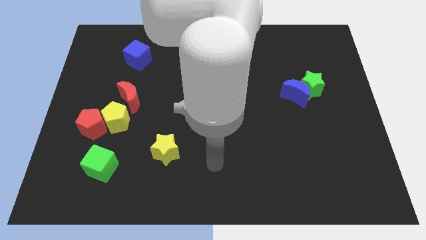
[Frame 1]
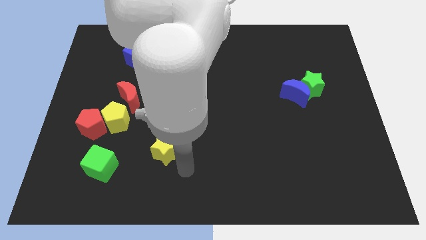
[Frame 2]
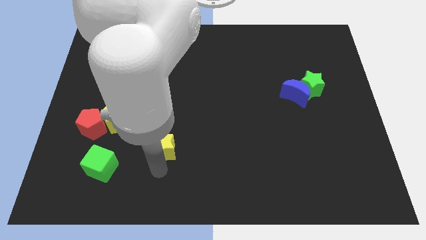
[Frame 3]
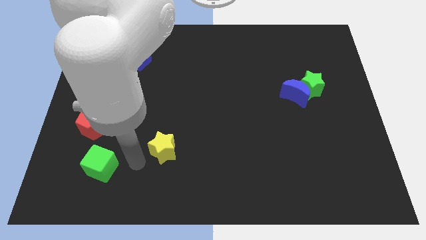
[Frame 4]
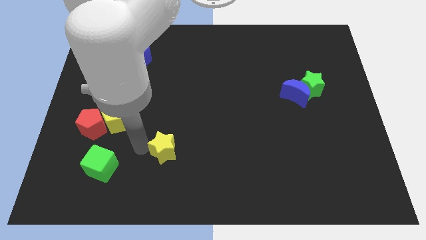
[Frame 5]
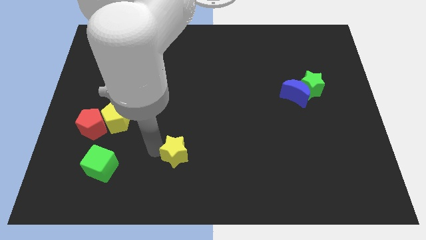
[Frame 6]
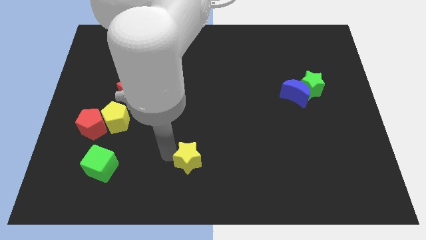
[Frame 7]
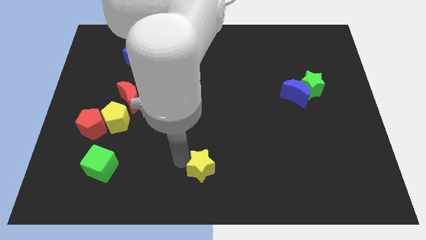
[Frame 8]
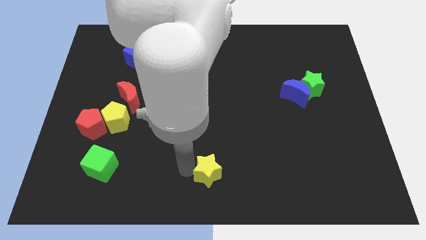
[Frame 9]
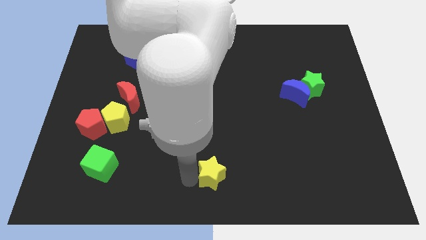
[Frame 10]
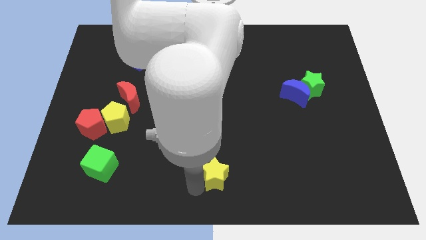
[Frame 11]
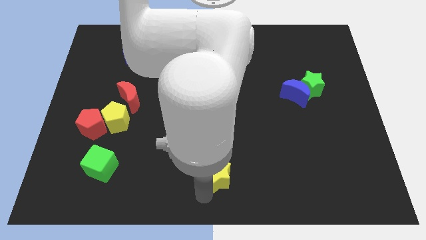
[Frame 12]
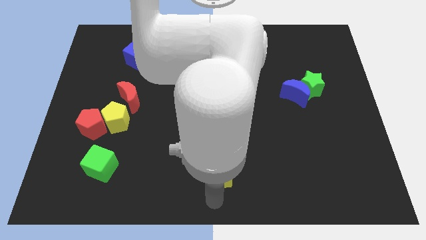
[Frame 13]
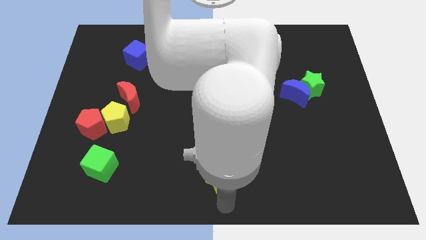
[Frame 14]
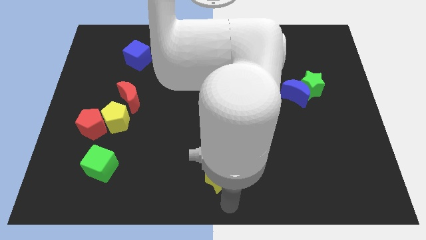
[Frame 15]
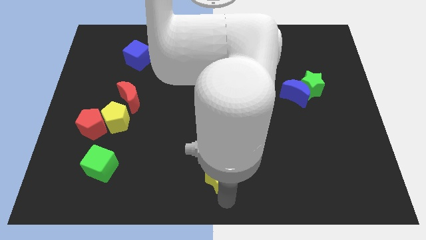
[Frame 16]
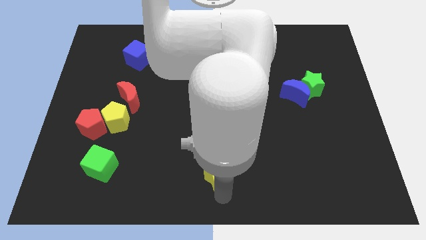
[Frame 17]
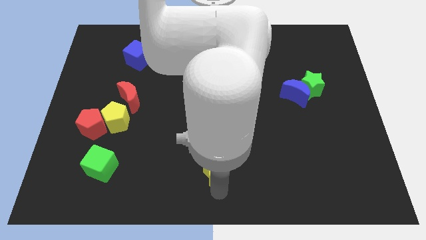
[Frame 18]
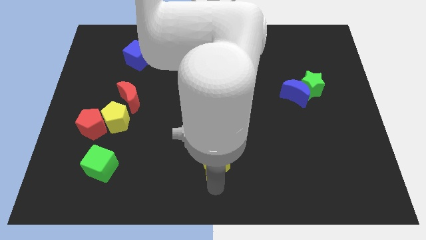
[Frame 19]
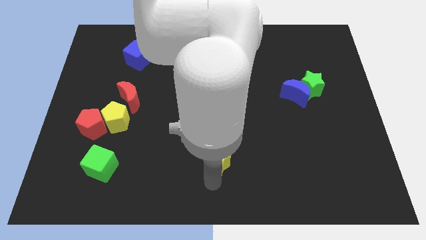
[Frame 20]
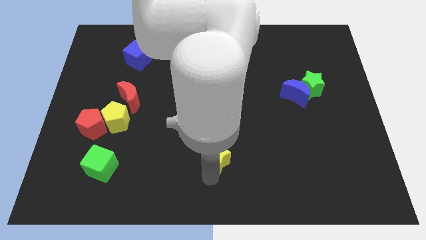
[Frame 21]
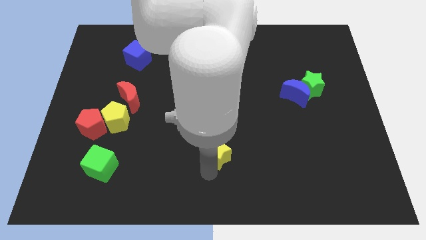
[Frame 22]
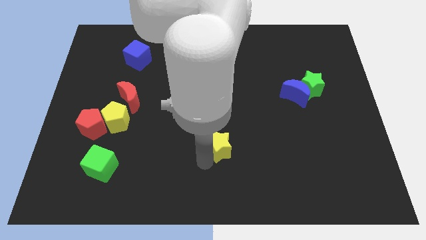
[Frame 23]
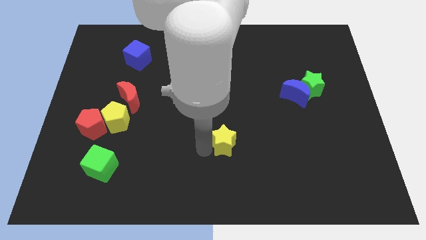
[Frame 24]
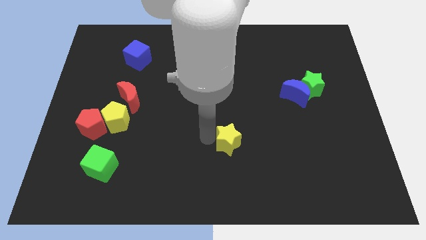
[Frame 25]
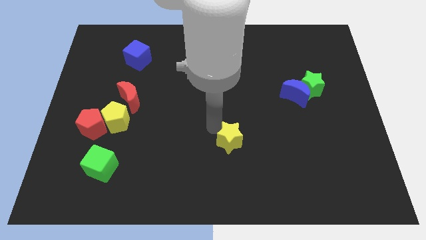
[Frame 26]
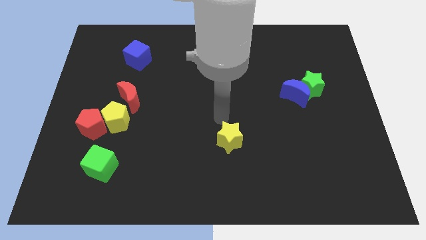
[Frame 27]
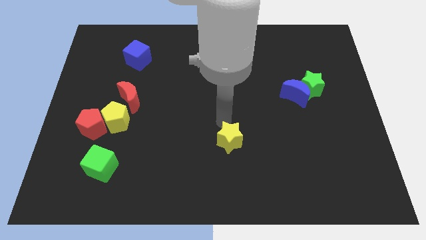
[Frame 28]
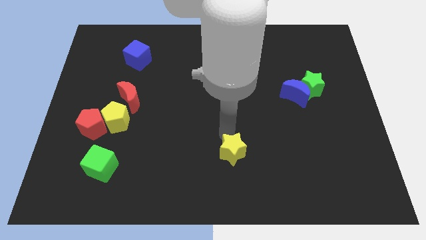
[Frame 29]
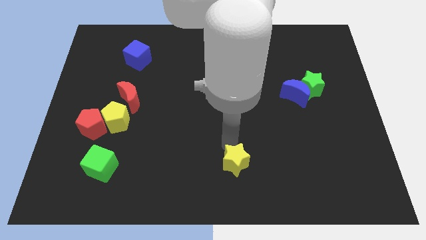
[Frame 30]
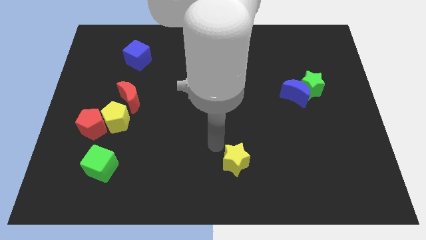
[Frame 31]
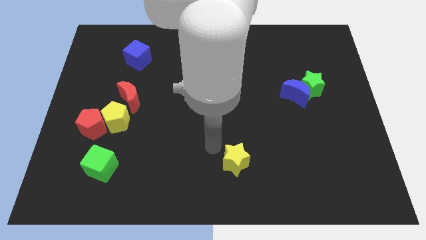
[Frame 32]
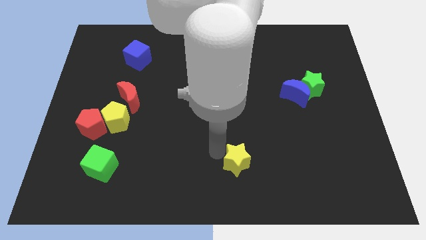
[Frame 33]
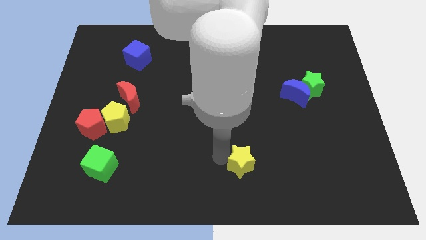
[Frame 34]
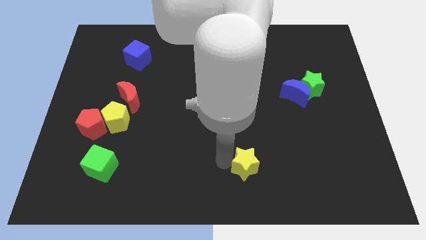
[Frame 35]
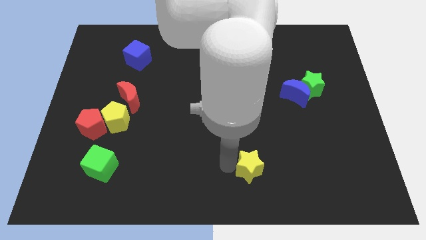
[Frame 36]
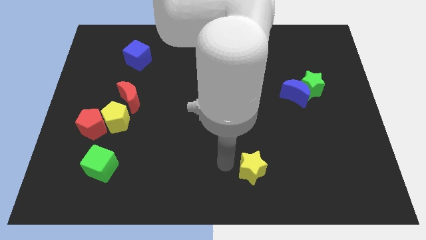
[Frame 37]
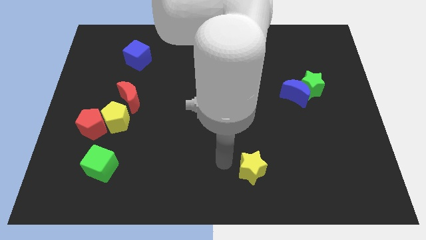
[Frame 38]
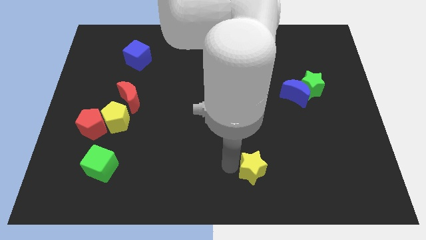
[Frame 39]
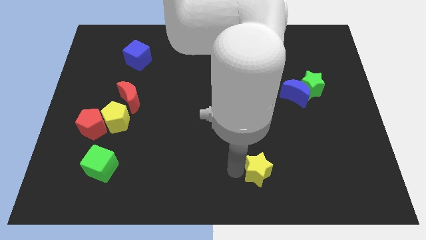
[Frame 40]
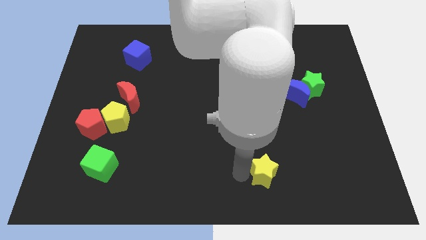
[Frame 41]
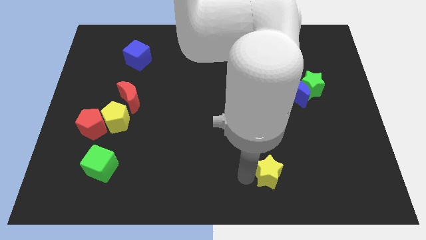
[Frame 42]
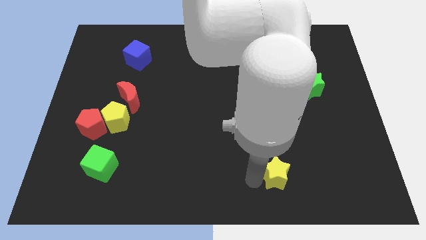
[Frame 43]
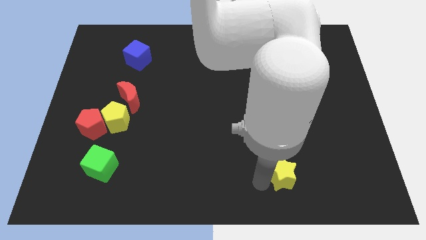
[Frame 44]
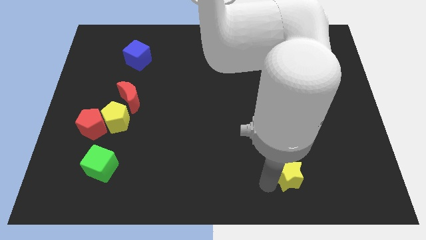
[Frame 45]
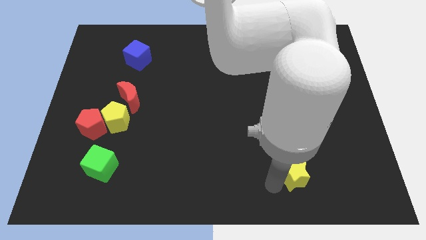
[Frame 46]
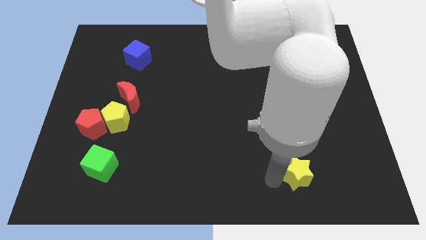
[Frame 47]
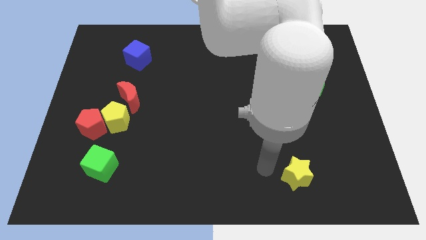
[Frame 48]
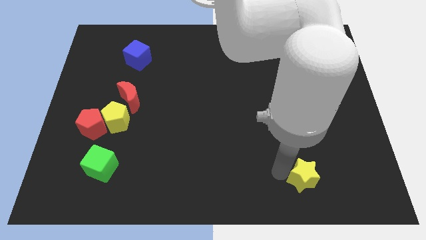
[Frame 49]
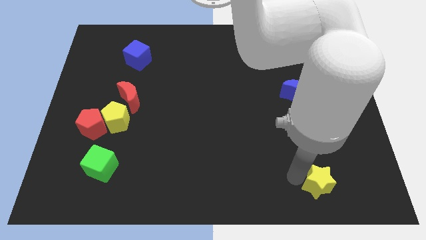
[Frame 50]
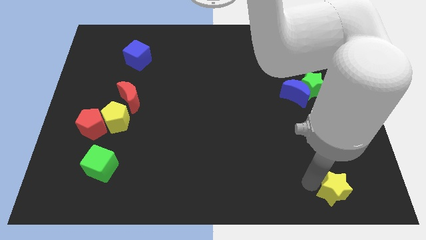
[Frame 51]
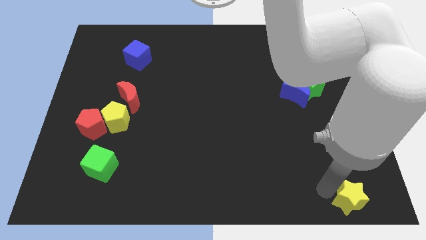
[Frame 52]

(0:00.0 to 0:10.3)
move the yellow star to the bottom right

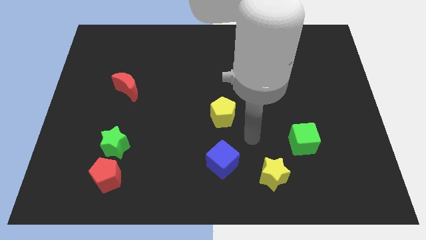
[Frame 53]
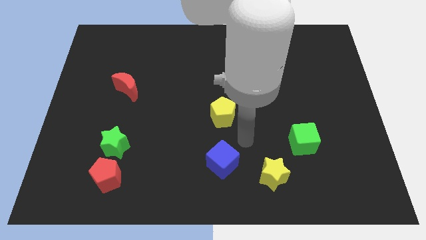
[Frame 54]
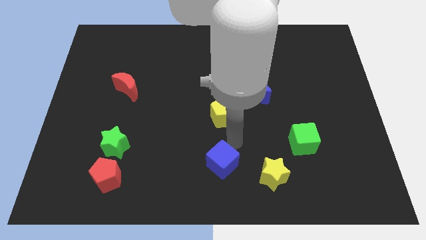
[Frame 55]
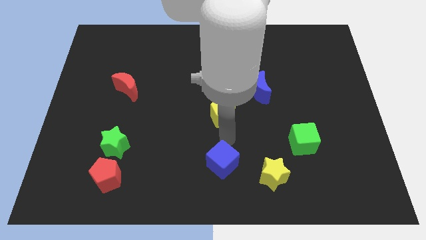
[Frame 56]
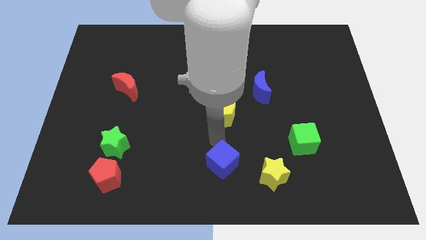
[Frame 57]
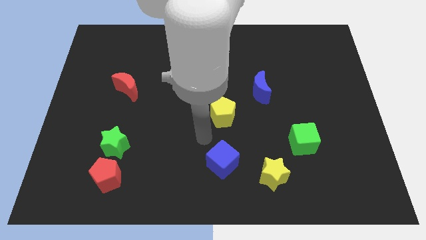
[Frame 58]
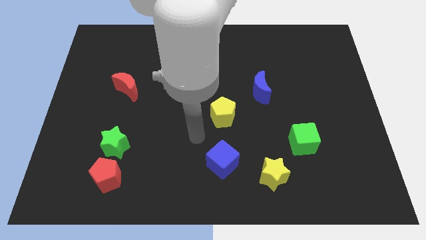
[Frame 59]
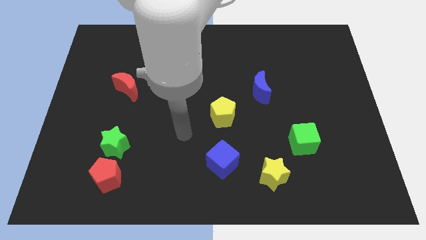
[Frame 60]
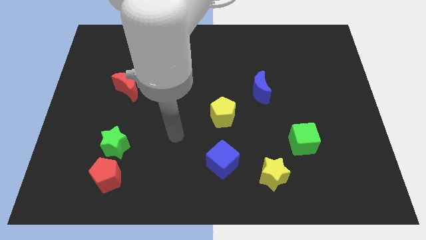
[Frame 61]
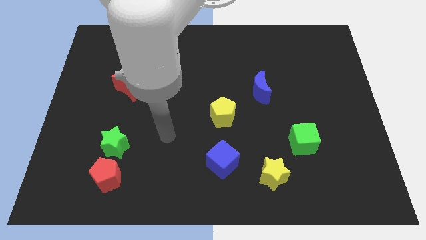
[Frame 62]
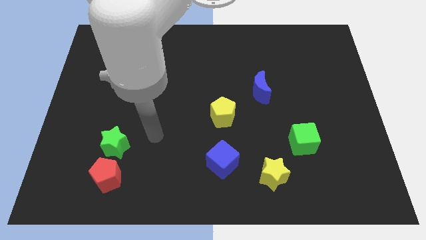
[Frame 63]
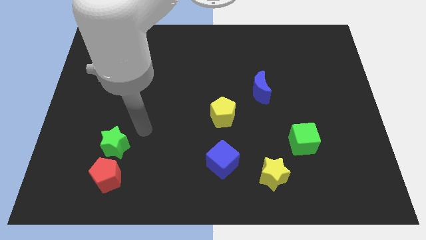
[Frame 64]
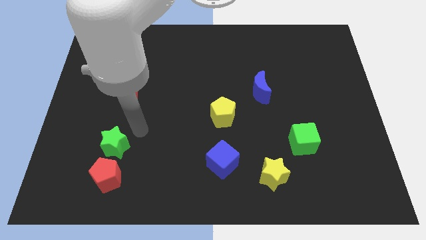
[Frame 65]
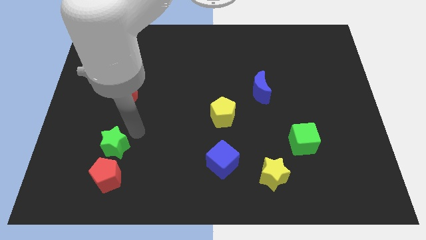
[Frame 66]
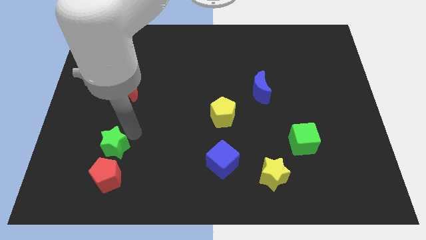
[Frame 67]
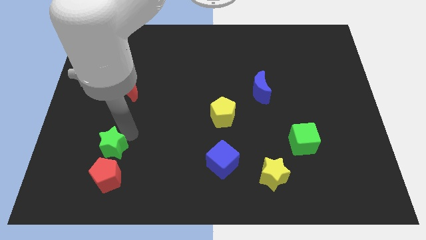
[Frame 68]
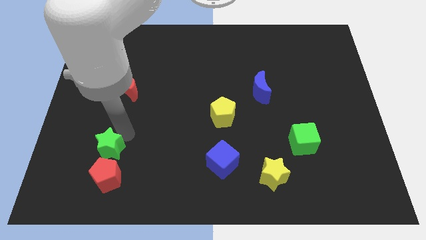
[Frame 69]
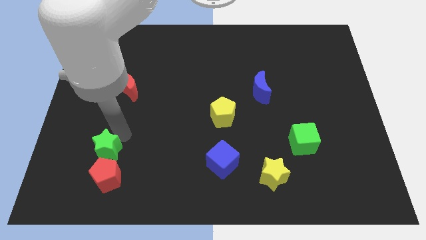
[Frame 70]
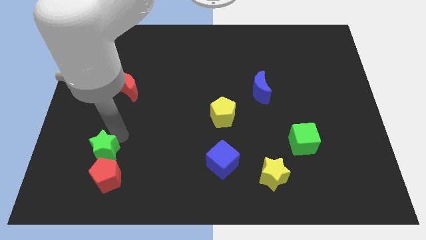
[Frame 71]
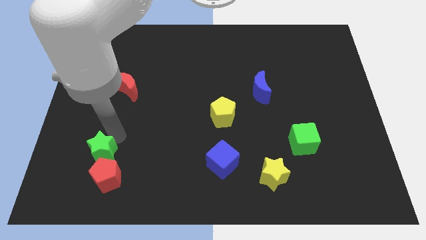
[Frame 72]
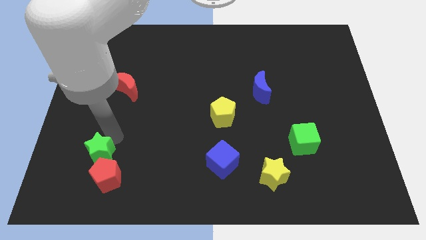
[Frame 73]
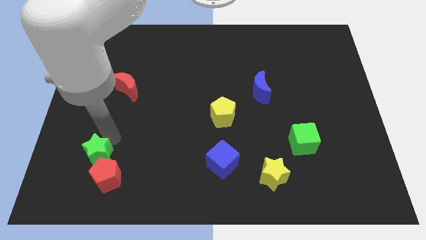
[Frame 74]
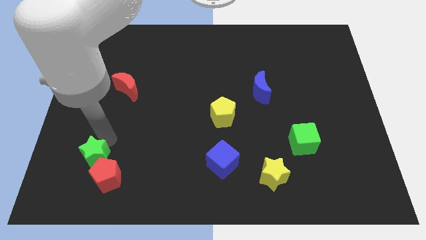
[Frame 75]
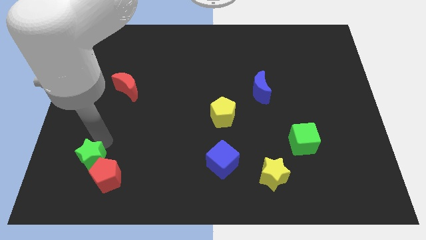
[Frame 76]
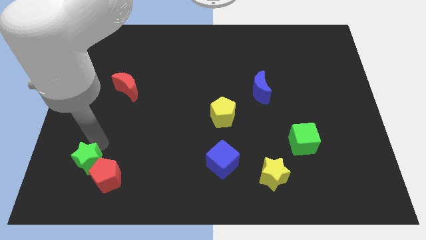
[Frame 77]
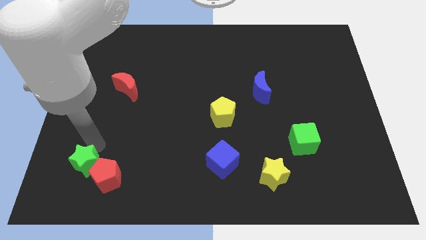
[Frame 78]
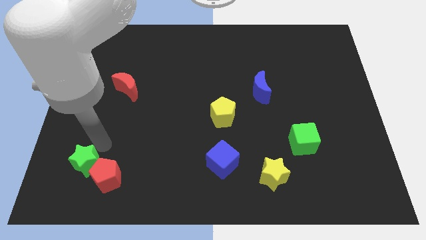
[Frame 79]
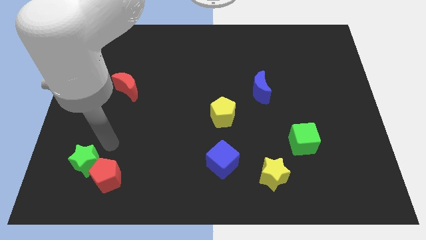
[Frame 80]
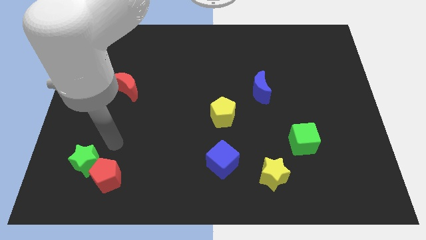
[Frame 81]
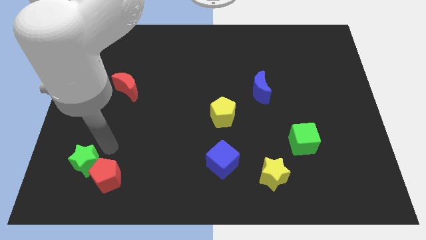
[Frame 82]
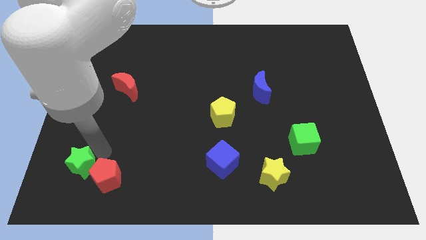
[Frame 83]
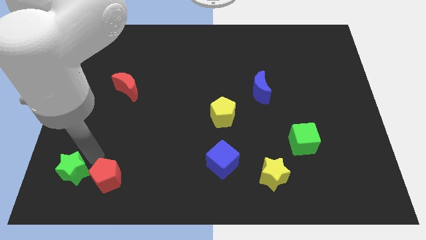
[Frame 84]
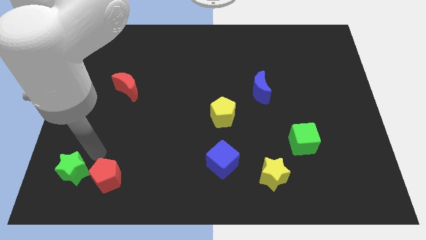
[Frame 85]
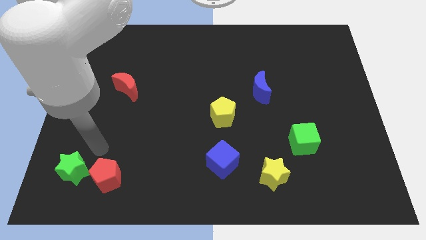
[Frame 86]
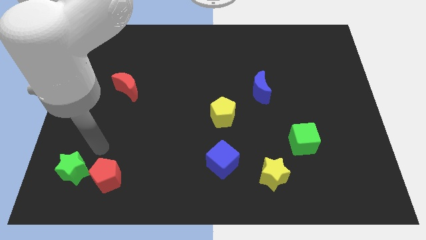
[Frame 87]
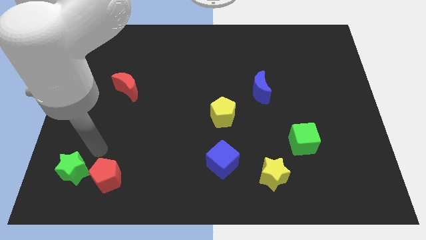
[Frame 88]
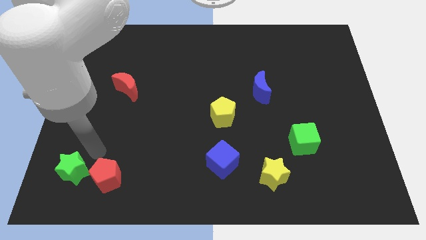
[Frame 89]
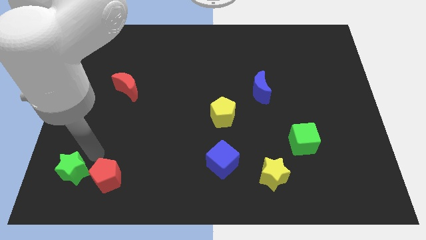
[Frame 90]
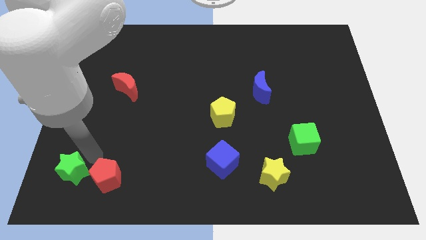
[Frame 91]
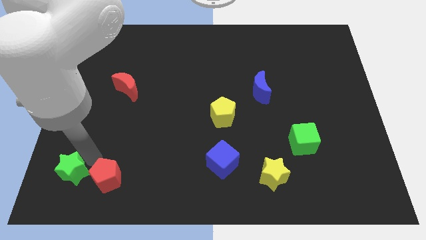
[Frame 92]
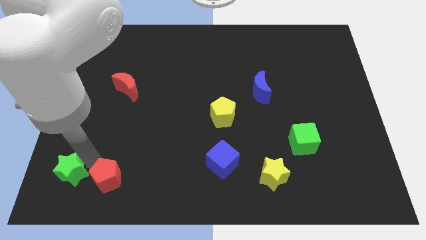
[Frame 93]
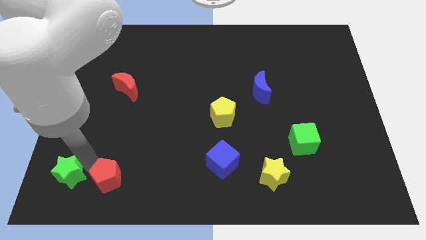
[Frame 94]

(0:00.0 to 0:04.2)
put the green star to the bottom left of the board
